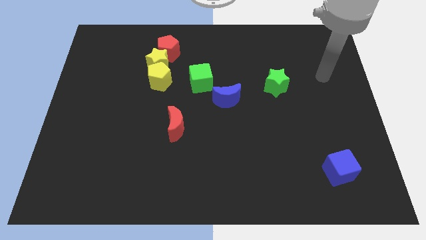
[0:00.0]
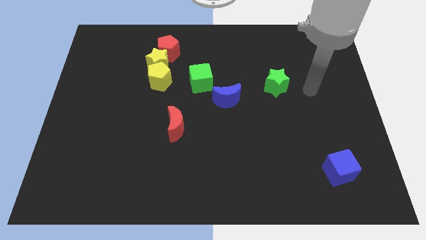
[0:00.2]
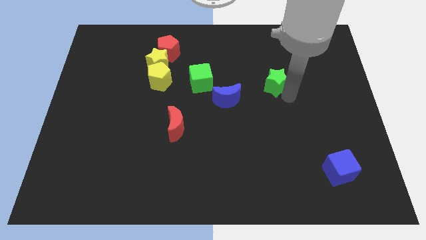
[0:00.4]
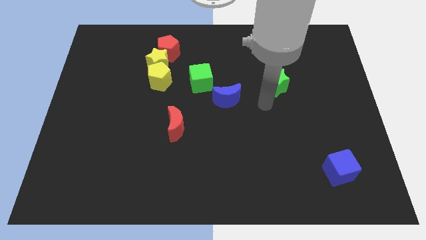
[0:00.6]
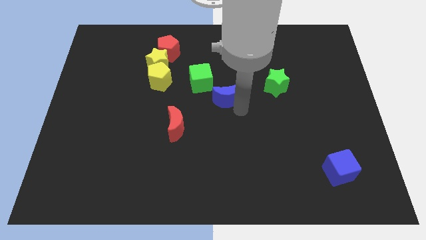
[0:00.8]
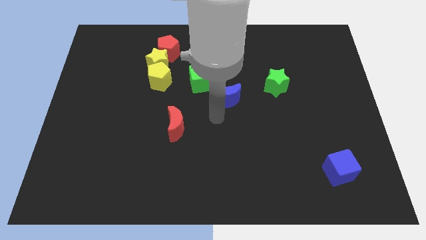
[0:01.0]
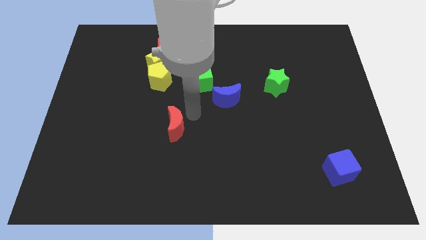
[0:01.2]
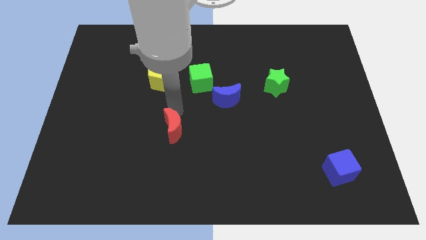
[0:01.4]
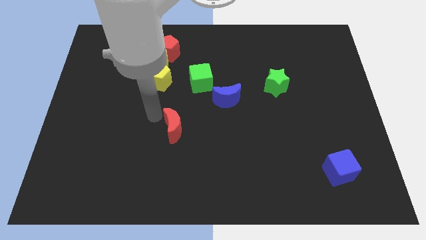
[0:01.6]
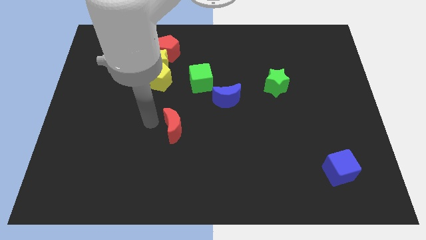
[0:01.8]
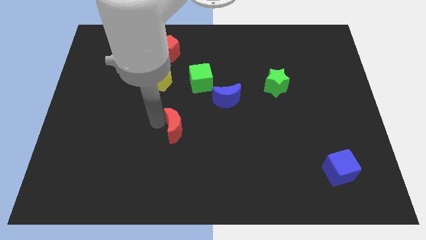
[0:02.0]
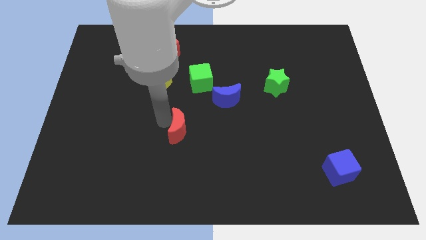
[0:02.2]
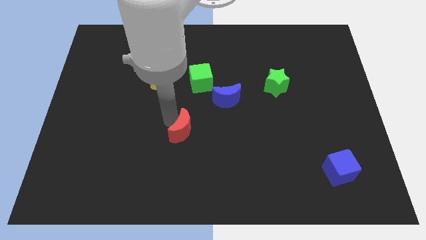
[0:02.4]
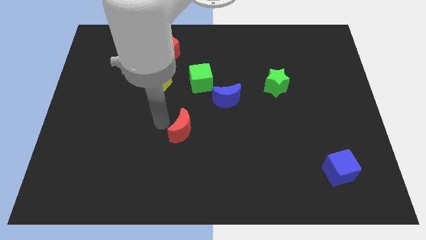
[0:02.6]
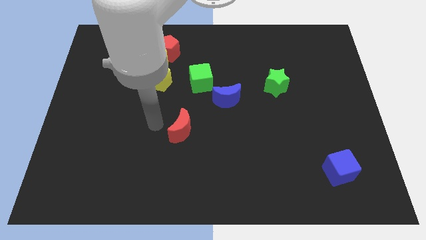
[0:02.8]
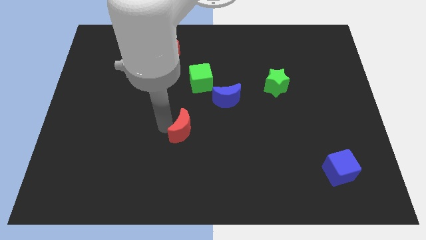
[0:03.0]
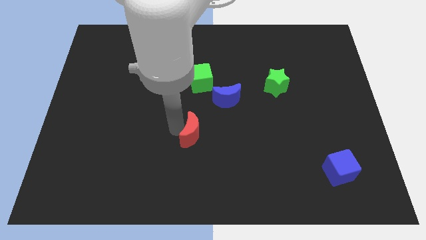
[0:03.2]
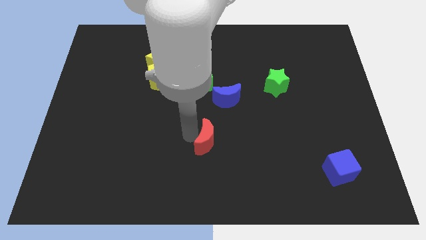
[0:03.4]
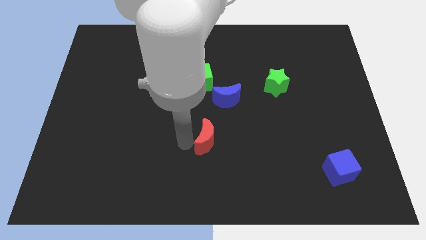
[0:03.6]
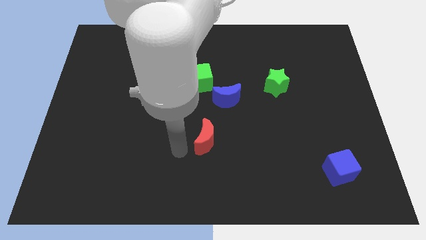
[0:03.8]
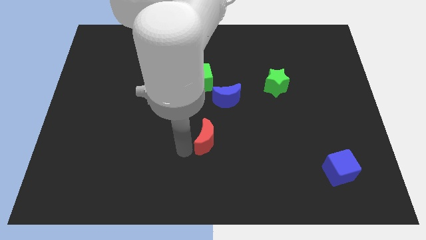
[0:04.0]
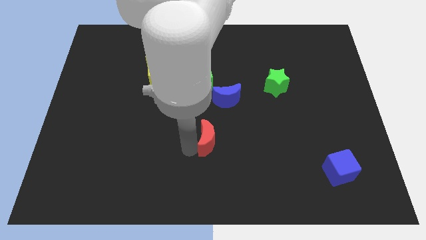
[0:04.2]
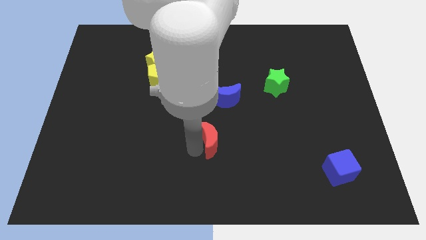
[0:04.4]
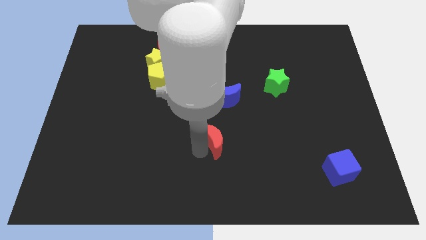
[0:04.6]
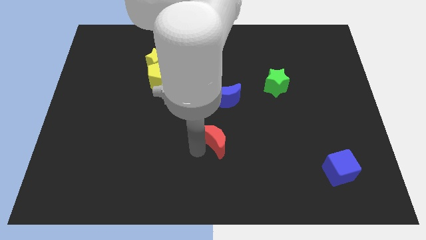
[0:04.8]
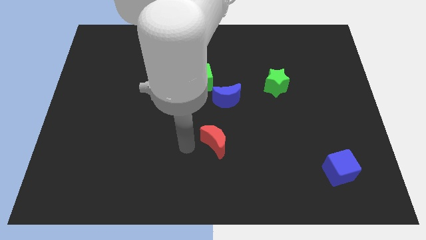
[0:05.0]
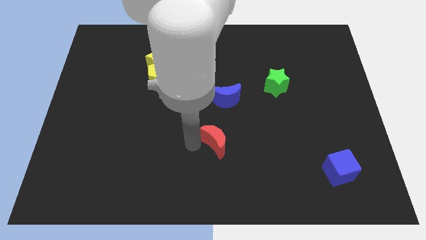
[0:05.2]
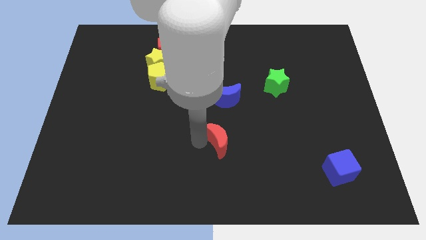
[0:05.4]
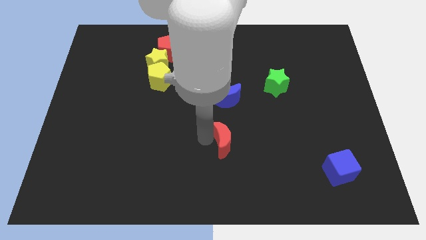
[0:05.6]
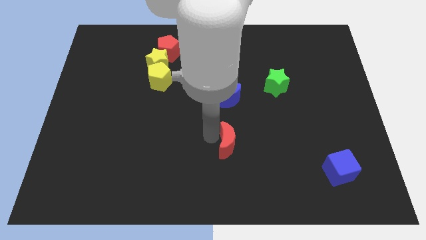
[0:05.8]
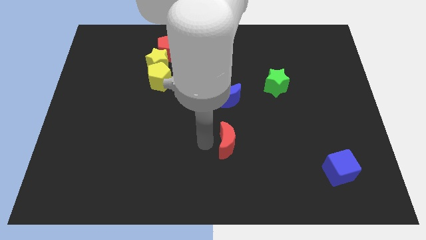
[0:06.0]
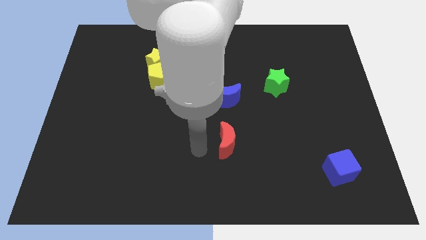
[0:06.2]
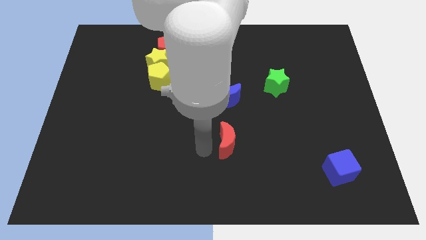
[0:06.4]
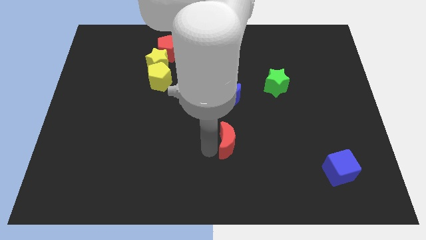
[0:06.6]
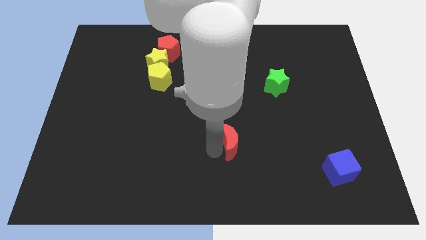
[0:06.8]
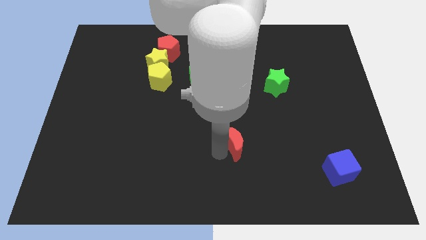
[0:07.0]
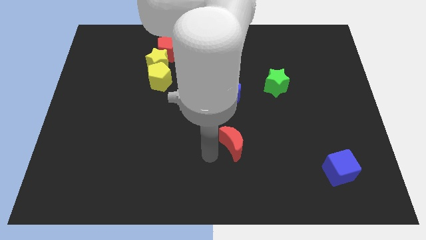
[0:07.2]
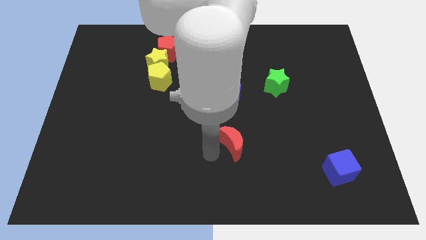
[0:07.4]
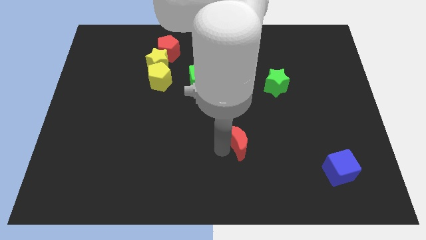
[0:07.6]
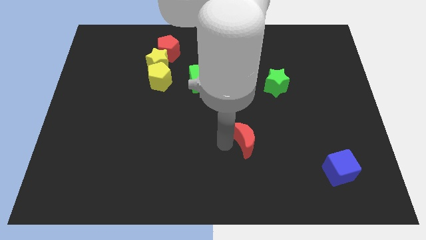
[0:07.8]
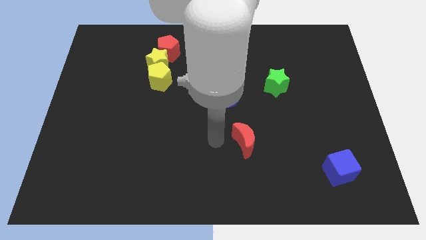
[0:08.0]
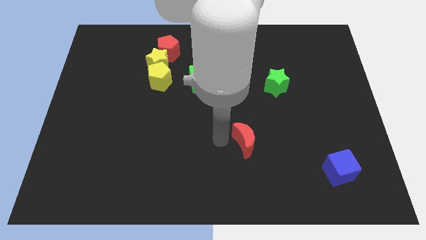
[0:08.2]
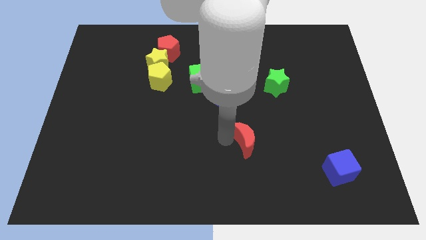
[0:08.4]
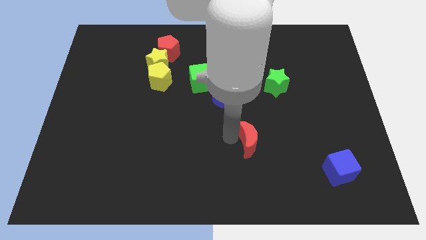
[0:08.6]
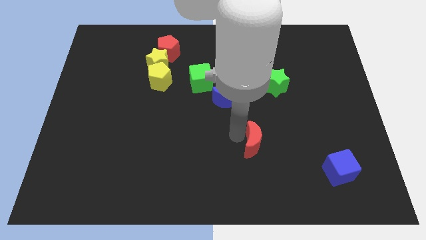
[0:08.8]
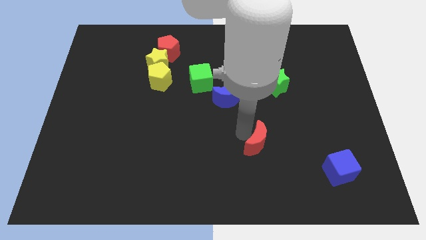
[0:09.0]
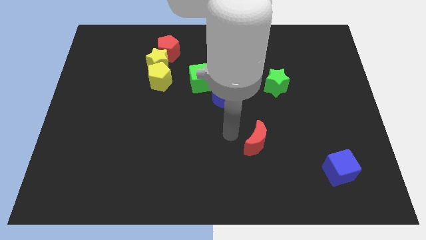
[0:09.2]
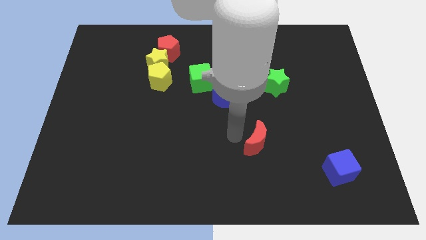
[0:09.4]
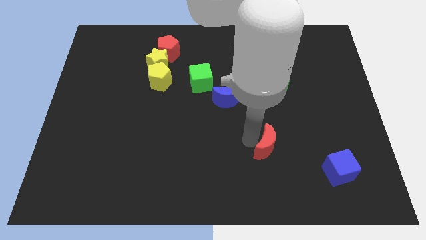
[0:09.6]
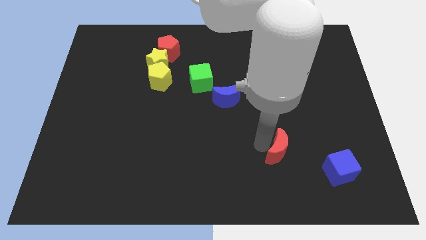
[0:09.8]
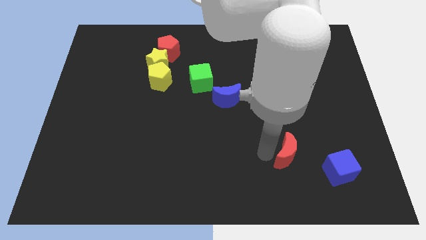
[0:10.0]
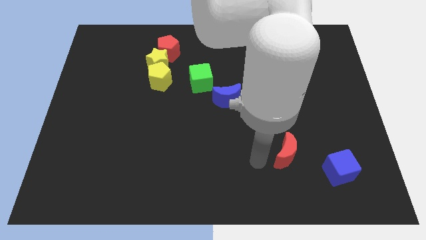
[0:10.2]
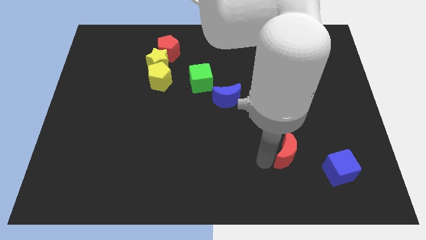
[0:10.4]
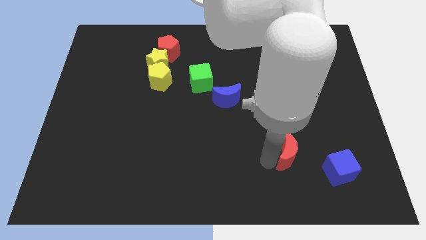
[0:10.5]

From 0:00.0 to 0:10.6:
push the red moon to the top left side of the blue cube

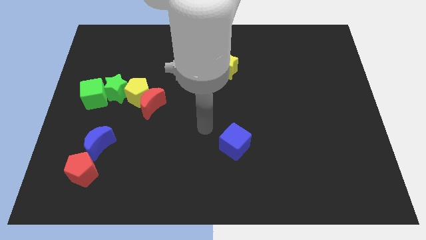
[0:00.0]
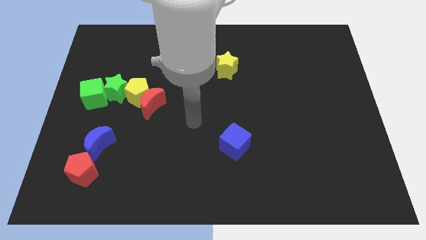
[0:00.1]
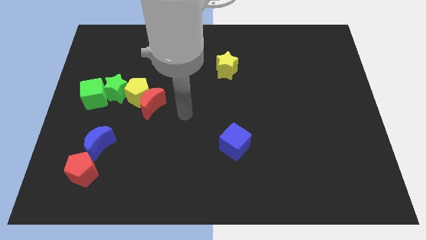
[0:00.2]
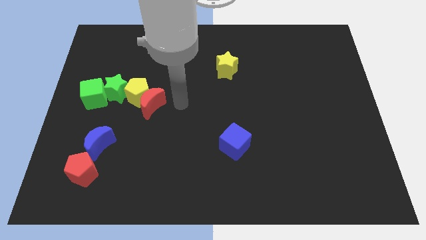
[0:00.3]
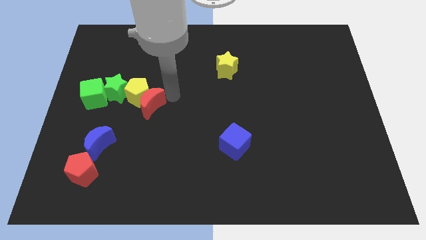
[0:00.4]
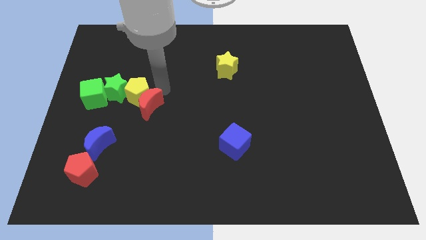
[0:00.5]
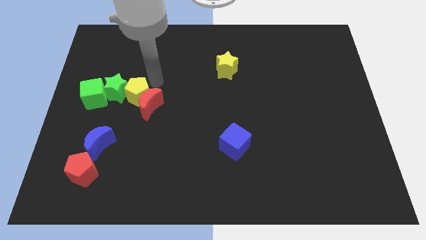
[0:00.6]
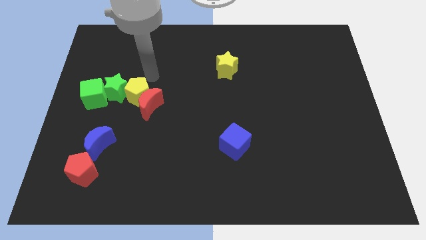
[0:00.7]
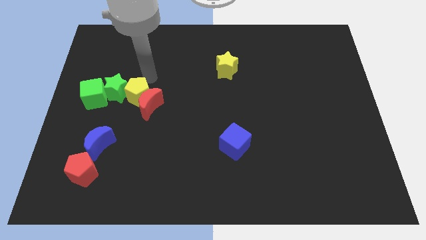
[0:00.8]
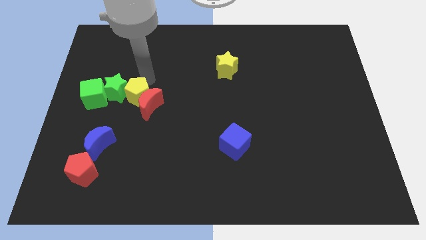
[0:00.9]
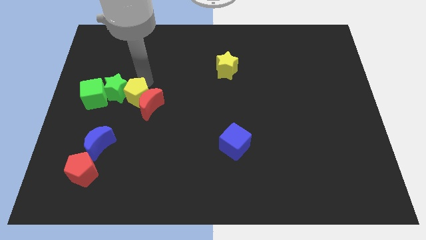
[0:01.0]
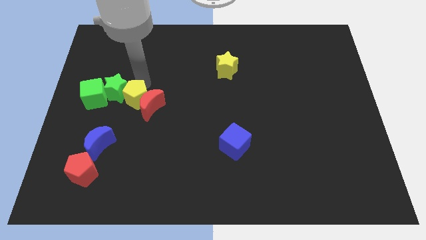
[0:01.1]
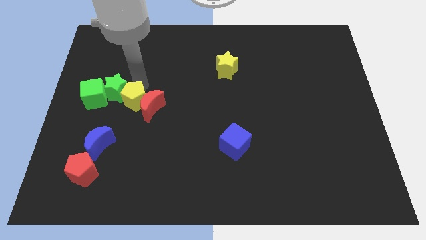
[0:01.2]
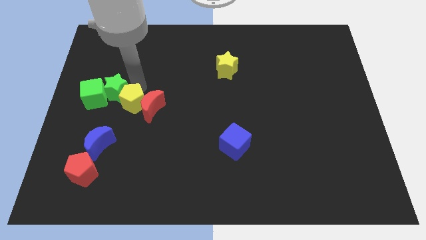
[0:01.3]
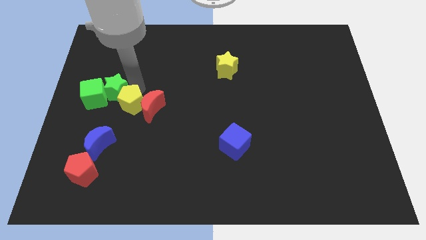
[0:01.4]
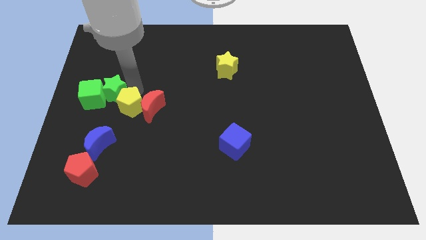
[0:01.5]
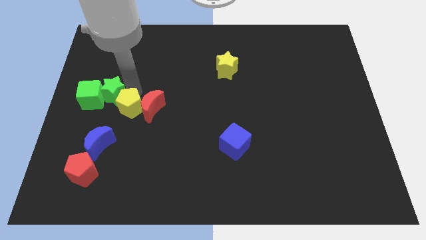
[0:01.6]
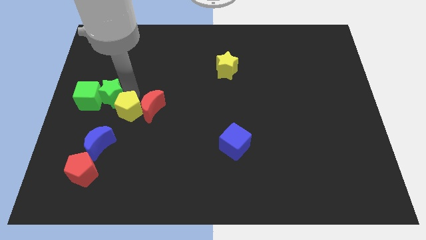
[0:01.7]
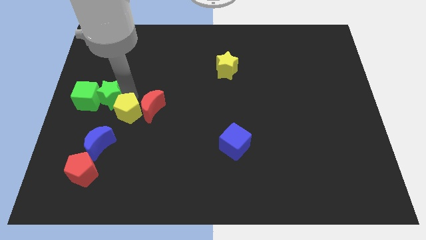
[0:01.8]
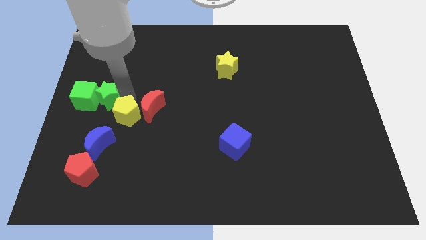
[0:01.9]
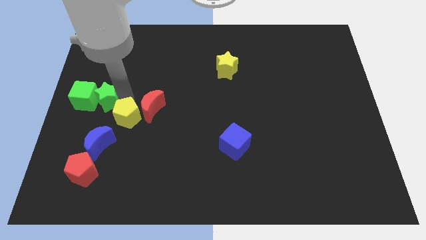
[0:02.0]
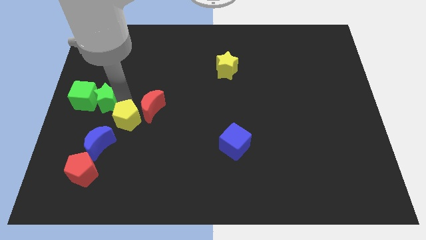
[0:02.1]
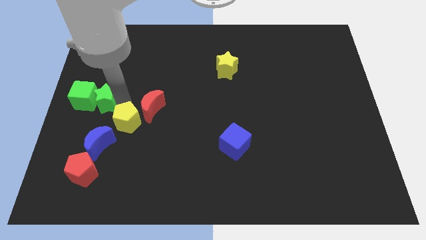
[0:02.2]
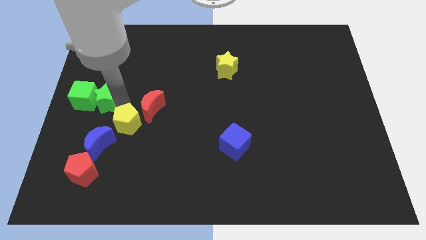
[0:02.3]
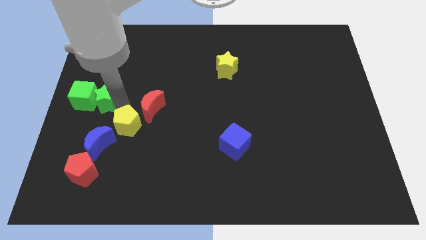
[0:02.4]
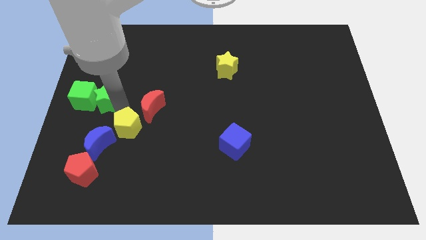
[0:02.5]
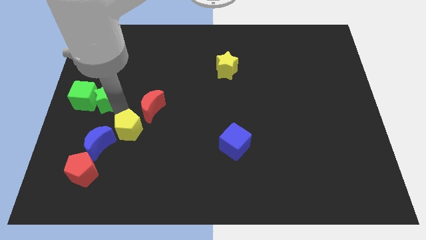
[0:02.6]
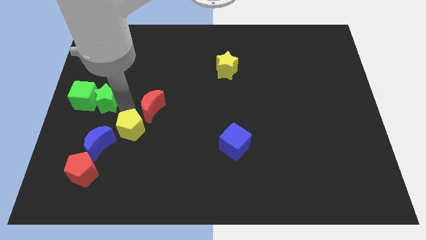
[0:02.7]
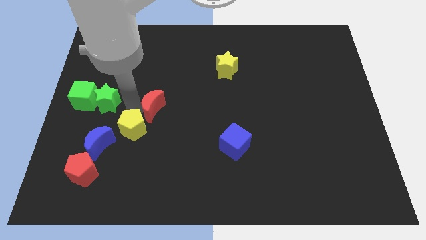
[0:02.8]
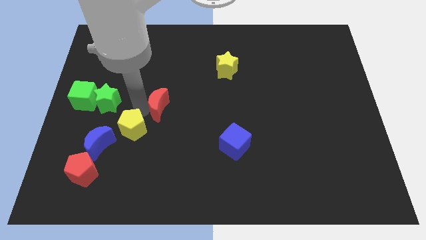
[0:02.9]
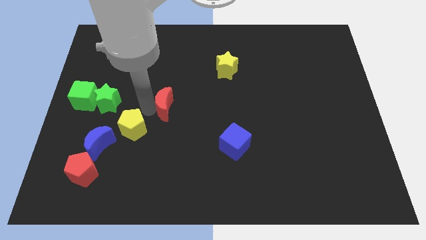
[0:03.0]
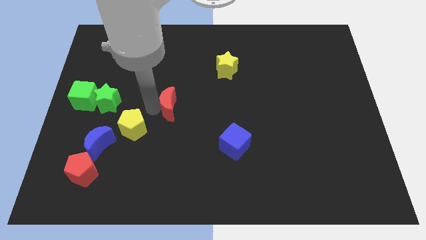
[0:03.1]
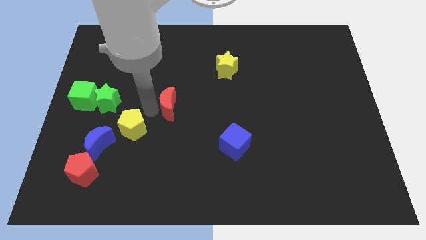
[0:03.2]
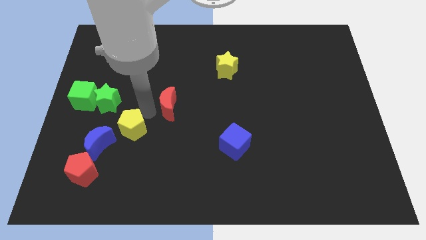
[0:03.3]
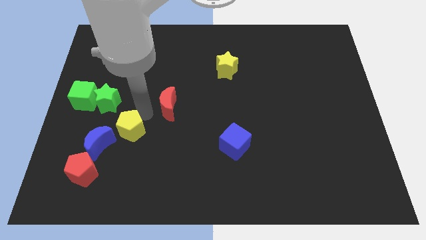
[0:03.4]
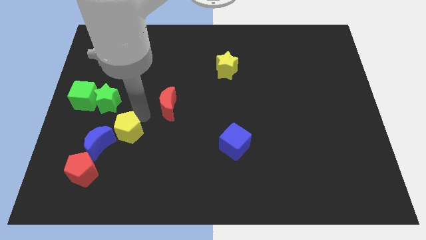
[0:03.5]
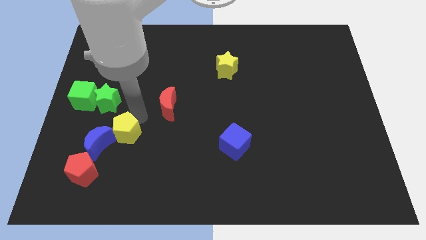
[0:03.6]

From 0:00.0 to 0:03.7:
push the yellow pentagon diagonally up and to the right of the red pentagon

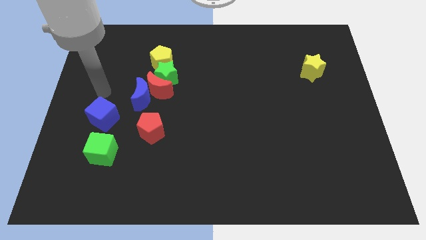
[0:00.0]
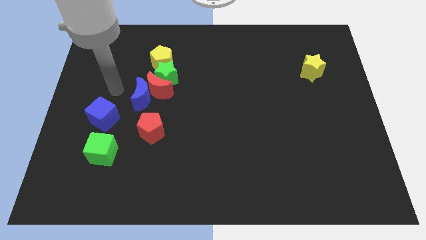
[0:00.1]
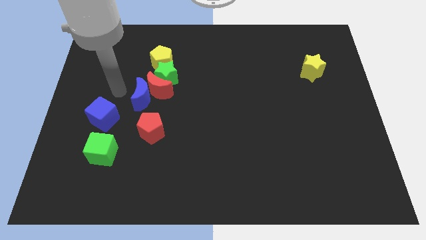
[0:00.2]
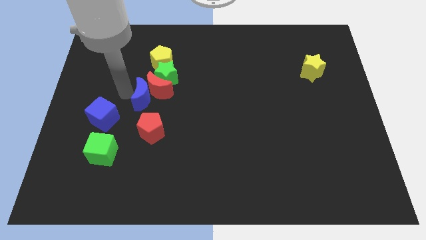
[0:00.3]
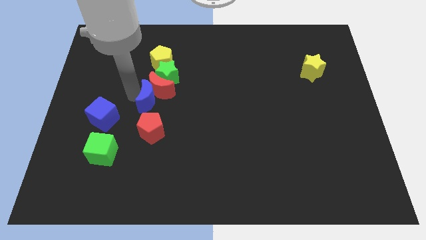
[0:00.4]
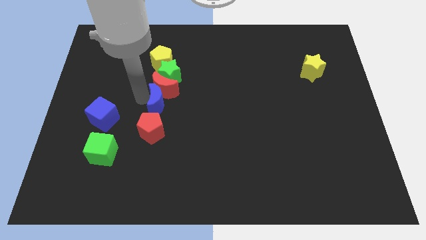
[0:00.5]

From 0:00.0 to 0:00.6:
move the blue moon to the bottom right of the red moon
